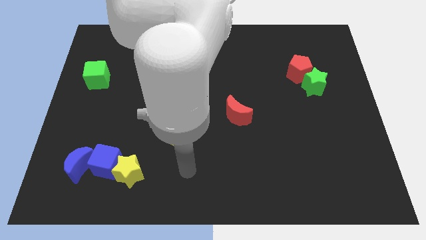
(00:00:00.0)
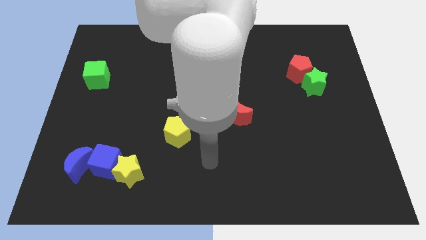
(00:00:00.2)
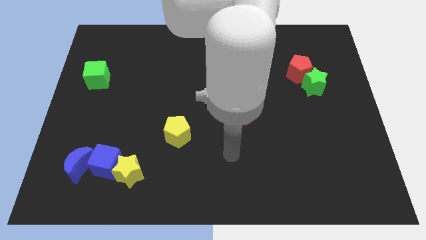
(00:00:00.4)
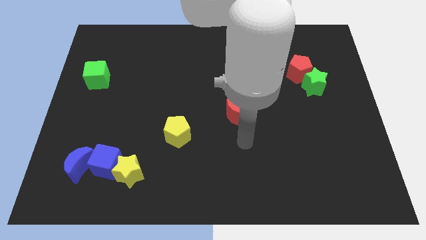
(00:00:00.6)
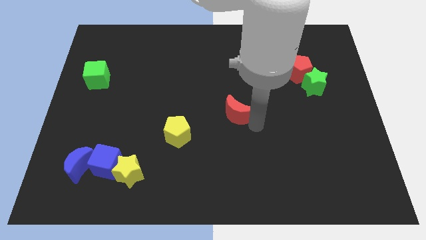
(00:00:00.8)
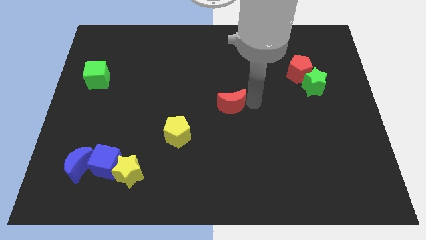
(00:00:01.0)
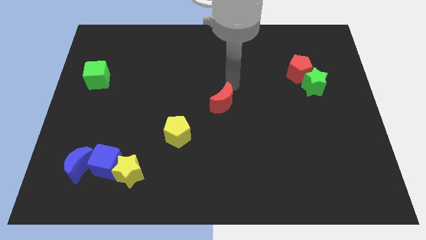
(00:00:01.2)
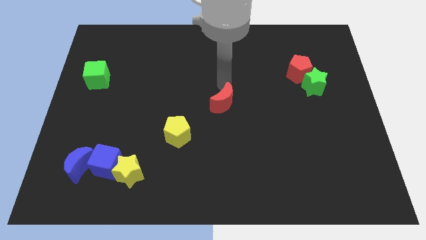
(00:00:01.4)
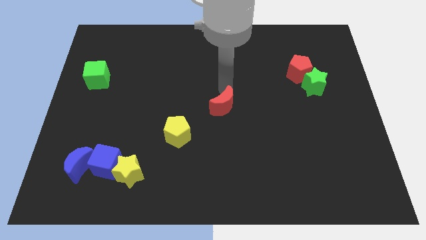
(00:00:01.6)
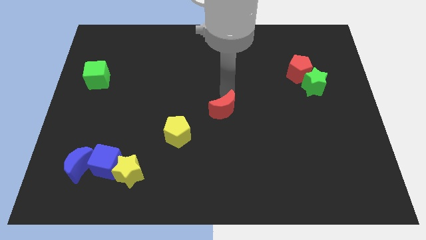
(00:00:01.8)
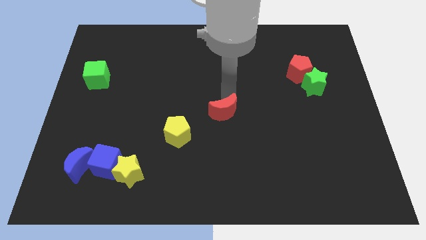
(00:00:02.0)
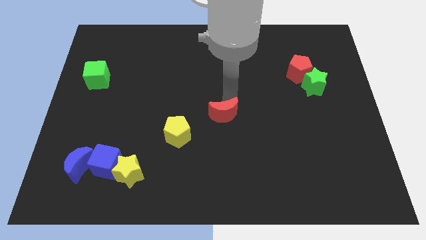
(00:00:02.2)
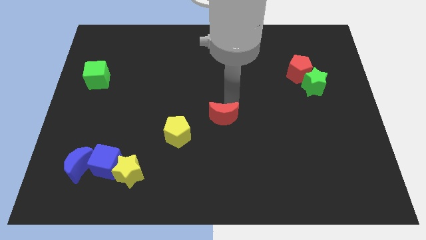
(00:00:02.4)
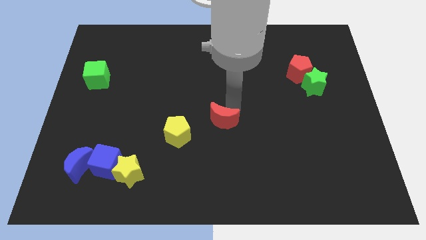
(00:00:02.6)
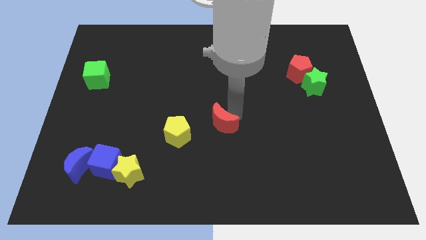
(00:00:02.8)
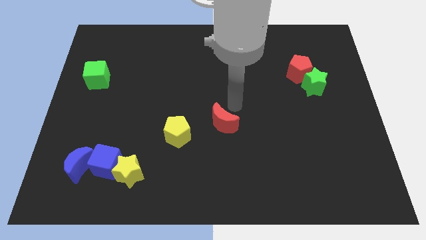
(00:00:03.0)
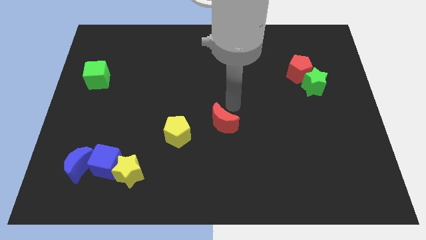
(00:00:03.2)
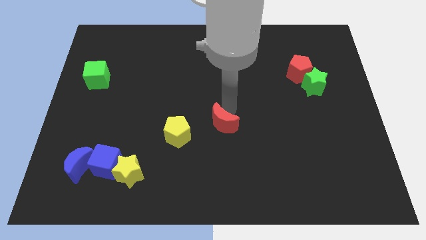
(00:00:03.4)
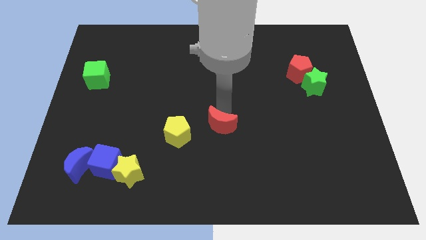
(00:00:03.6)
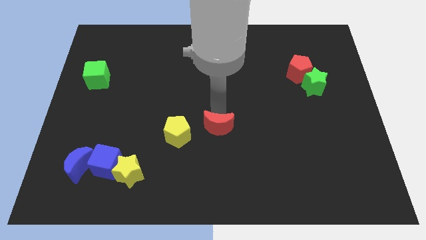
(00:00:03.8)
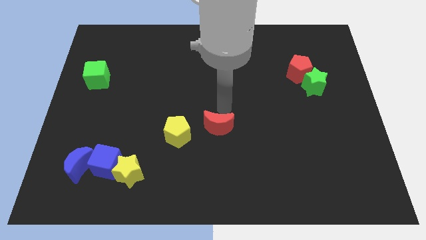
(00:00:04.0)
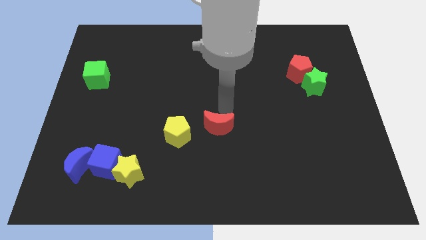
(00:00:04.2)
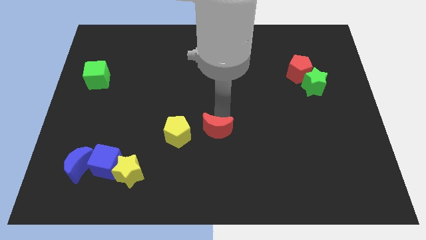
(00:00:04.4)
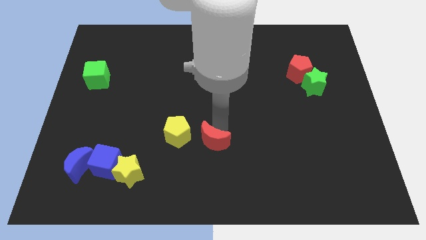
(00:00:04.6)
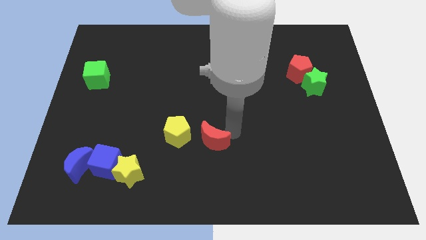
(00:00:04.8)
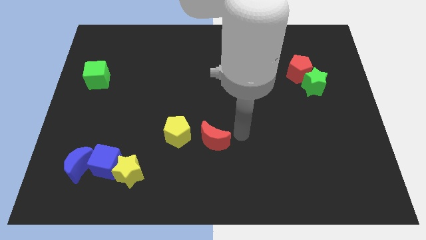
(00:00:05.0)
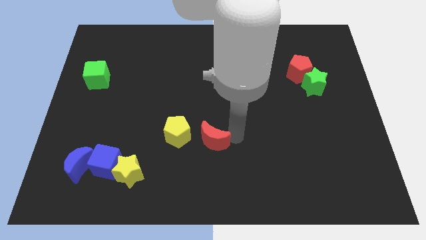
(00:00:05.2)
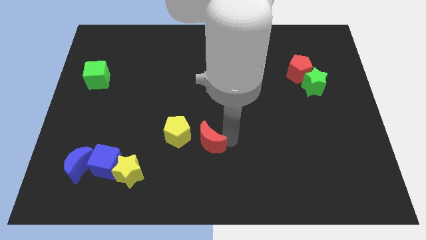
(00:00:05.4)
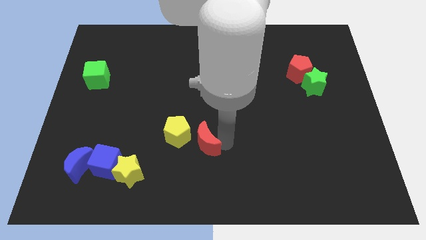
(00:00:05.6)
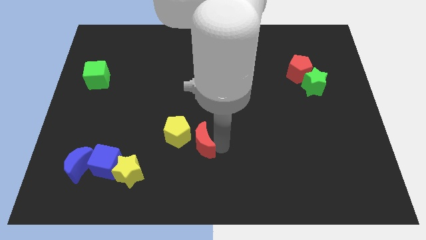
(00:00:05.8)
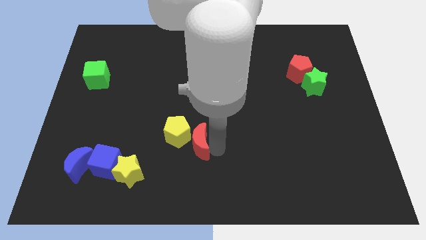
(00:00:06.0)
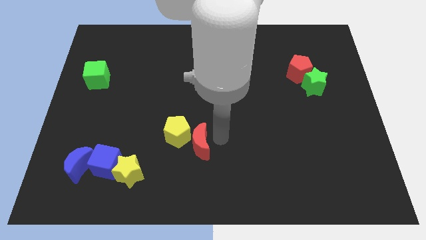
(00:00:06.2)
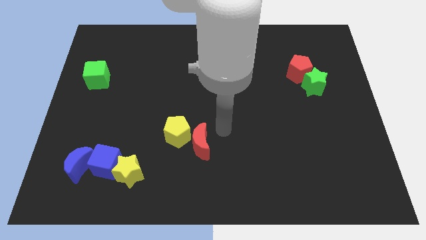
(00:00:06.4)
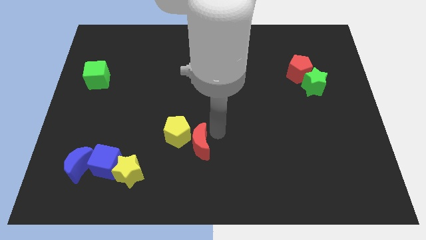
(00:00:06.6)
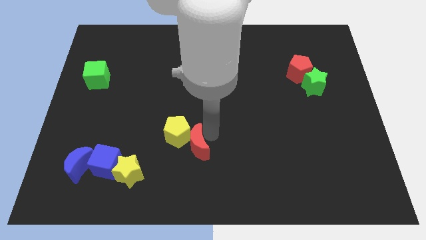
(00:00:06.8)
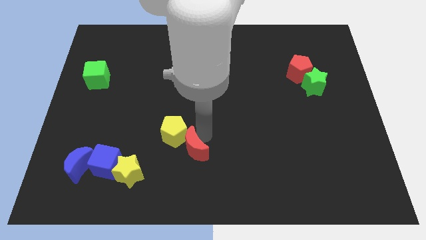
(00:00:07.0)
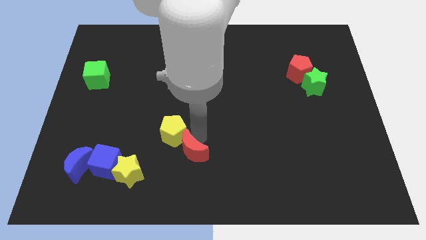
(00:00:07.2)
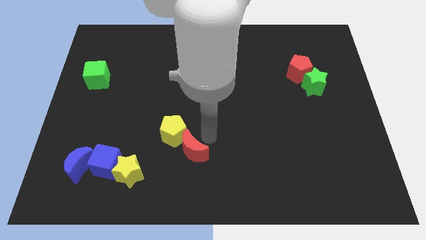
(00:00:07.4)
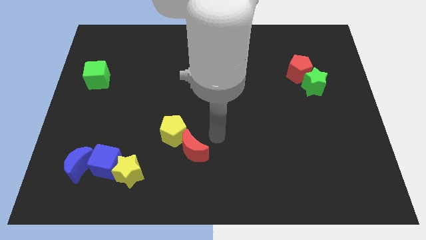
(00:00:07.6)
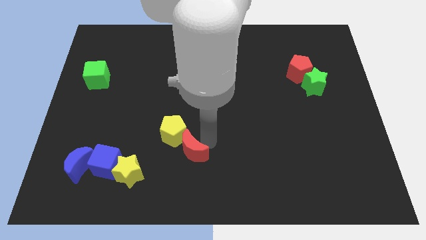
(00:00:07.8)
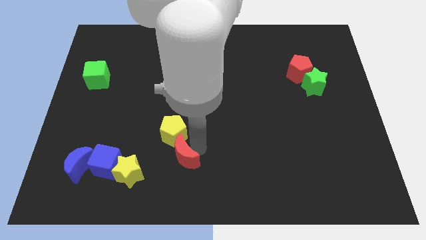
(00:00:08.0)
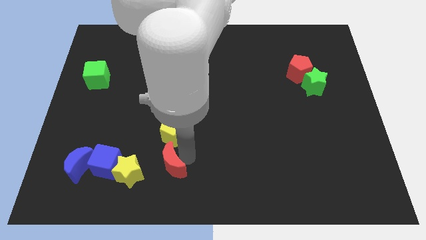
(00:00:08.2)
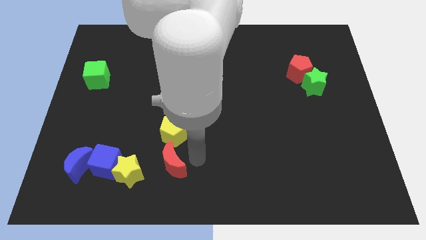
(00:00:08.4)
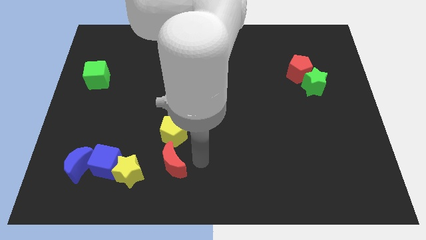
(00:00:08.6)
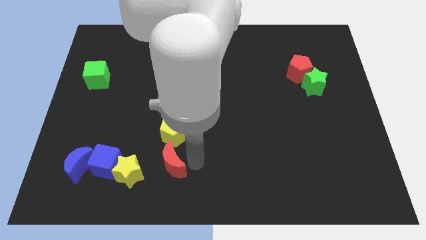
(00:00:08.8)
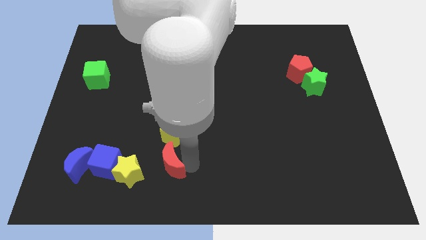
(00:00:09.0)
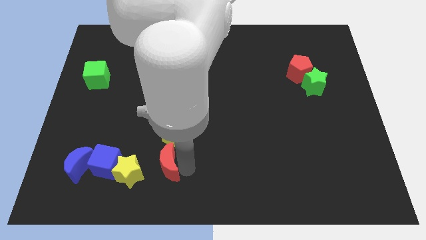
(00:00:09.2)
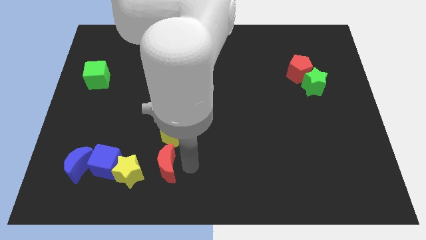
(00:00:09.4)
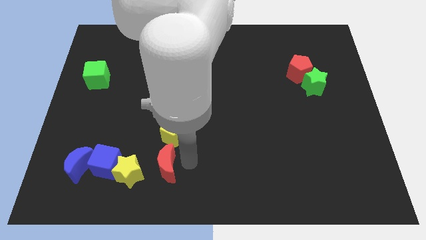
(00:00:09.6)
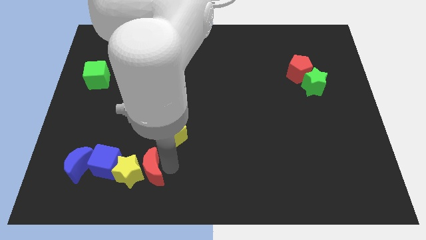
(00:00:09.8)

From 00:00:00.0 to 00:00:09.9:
push the red moon next to the yellow star

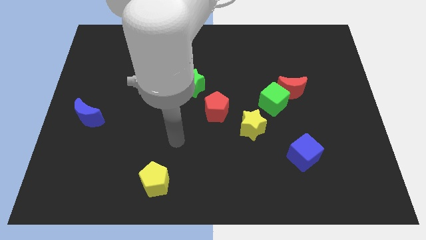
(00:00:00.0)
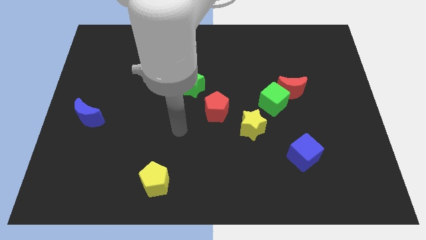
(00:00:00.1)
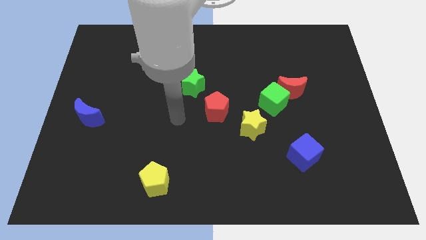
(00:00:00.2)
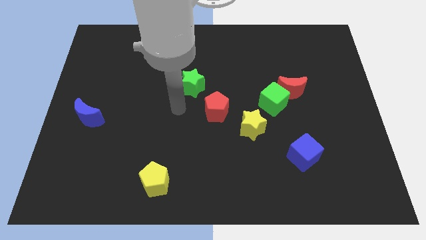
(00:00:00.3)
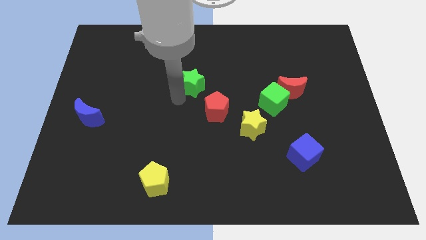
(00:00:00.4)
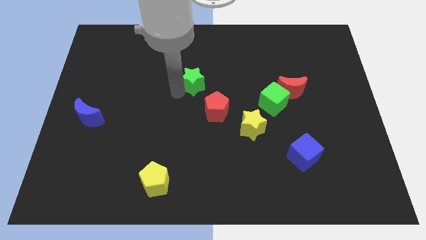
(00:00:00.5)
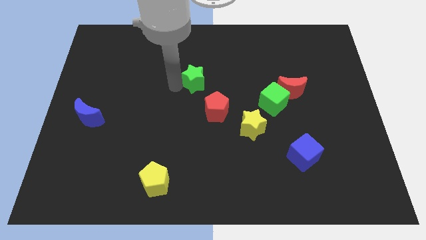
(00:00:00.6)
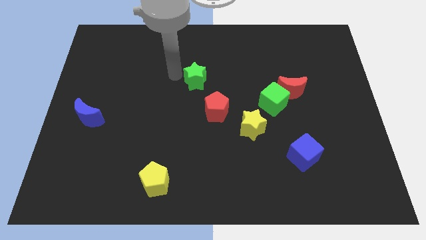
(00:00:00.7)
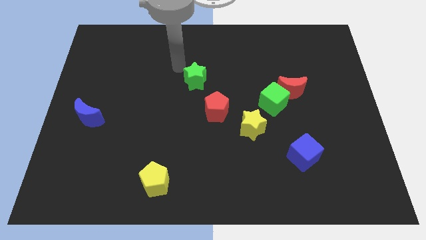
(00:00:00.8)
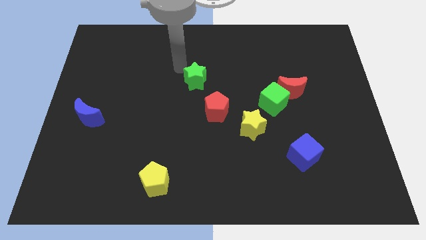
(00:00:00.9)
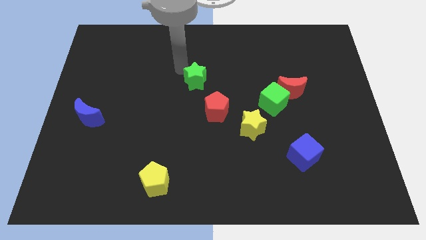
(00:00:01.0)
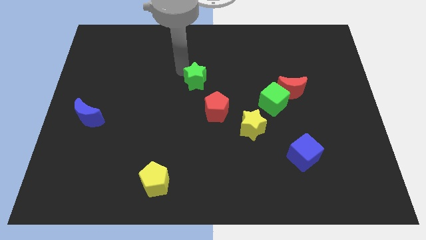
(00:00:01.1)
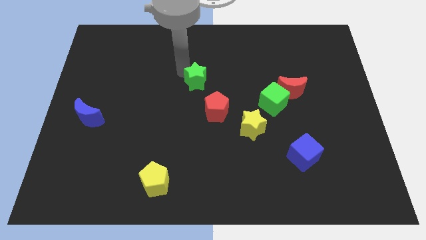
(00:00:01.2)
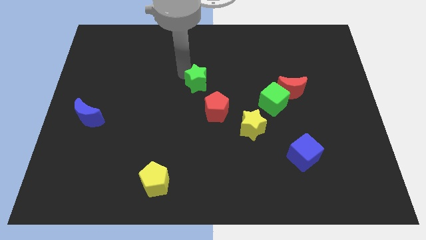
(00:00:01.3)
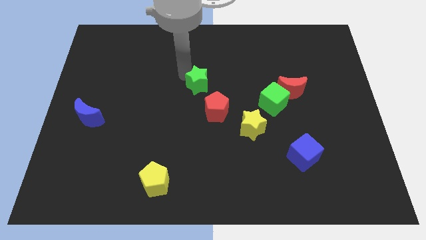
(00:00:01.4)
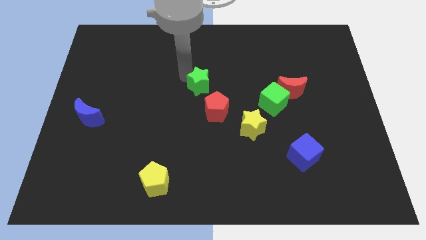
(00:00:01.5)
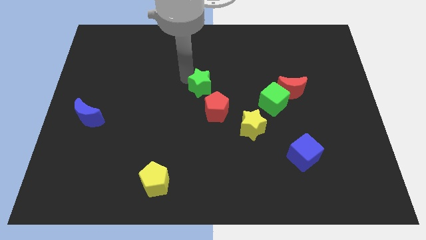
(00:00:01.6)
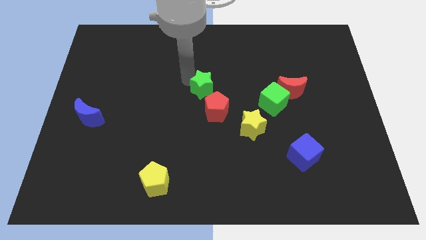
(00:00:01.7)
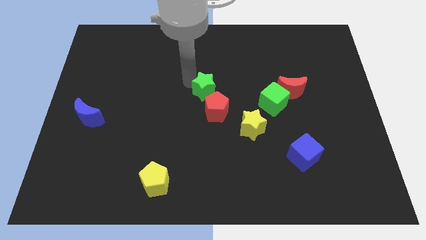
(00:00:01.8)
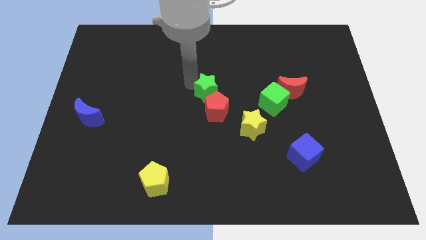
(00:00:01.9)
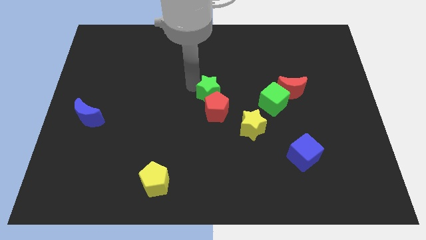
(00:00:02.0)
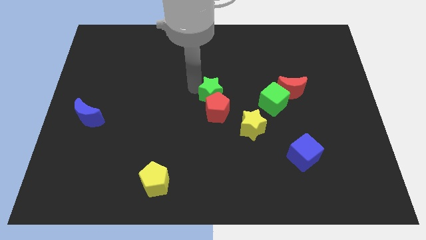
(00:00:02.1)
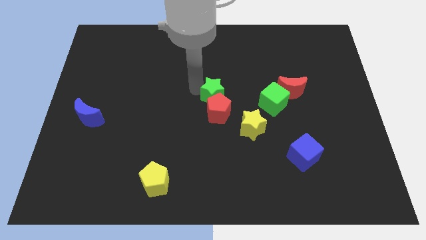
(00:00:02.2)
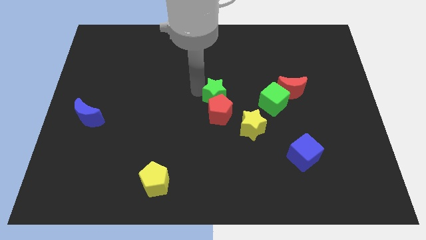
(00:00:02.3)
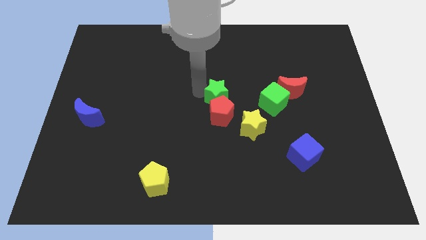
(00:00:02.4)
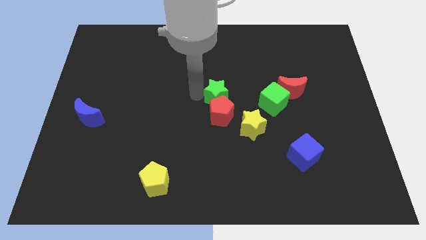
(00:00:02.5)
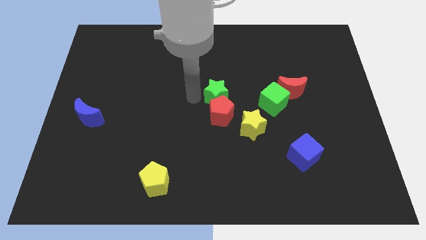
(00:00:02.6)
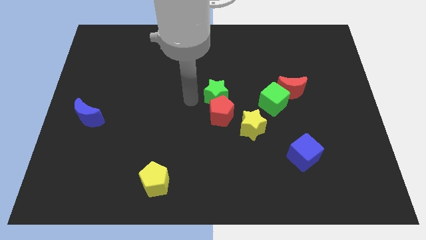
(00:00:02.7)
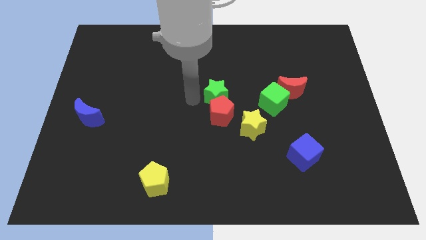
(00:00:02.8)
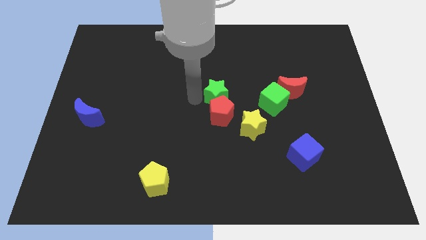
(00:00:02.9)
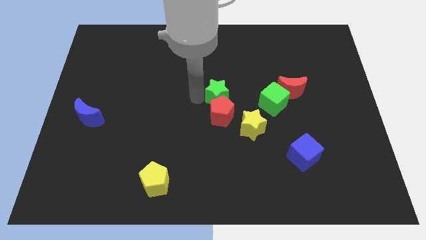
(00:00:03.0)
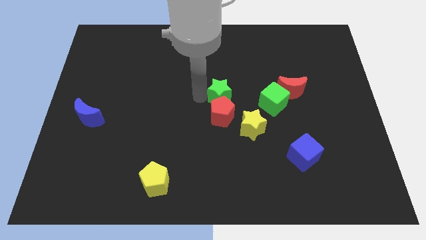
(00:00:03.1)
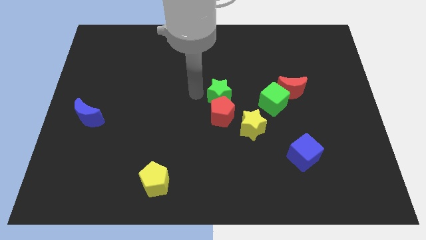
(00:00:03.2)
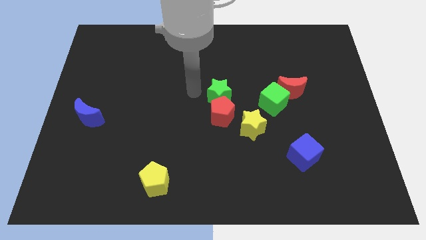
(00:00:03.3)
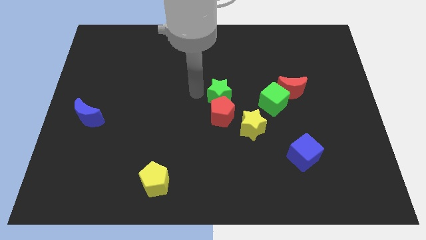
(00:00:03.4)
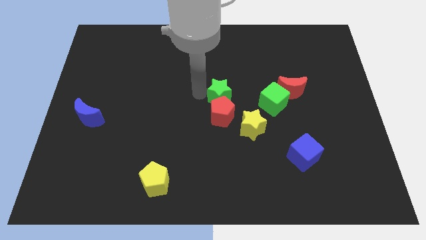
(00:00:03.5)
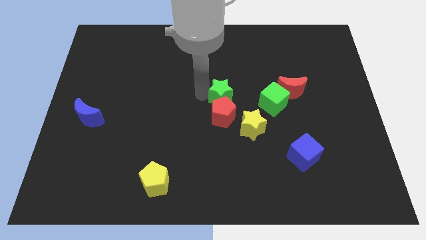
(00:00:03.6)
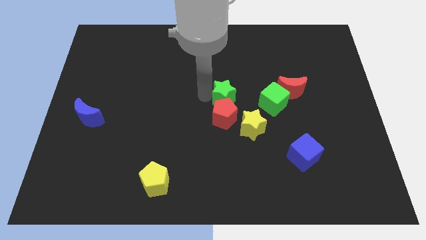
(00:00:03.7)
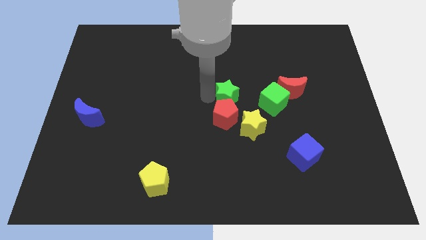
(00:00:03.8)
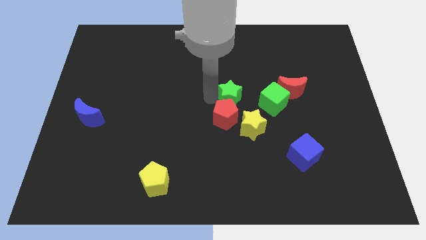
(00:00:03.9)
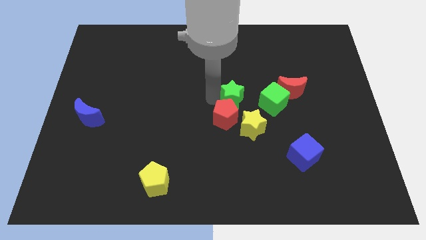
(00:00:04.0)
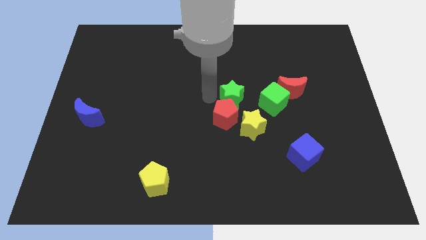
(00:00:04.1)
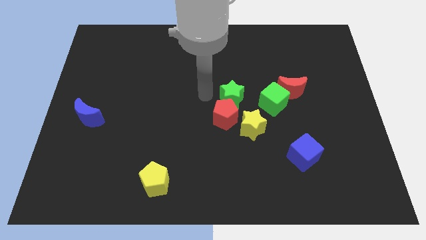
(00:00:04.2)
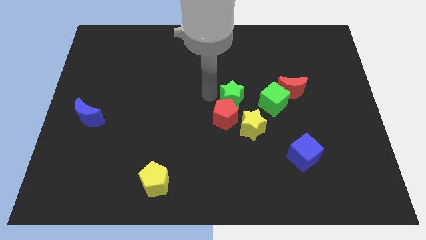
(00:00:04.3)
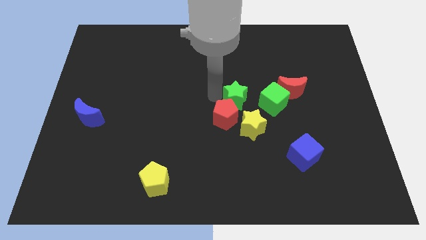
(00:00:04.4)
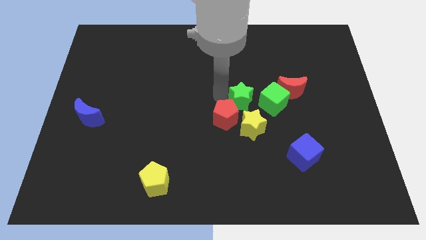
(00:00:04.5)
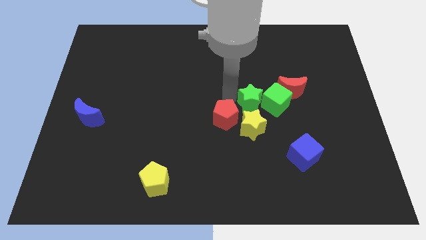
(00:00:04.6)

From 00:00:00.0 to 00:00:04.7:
move the green star next to the green cube
